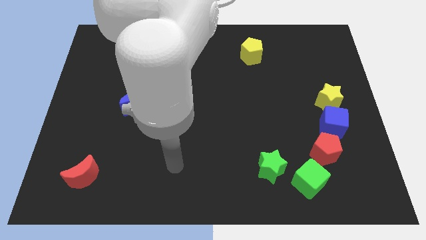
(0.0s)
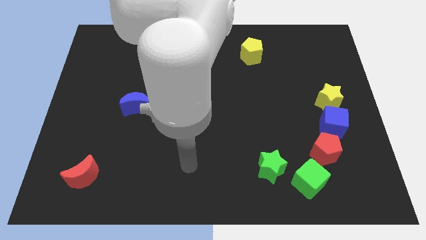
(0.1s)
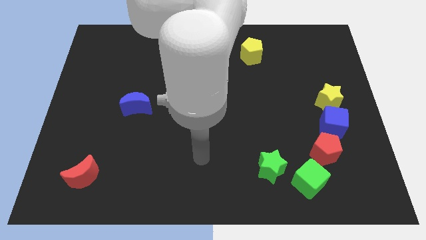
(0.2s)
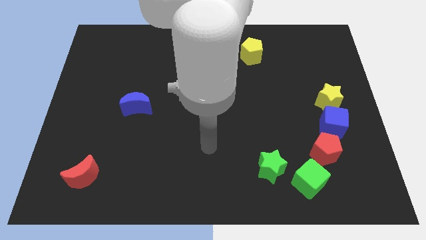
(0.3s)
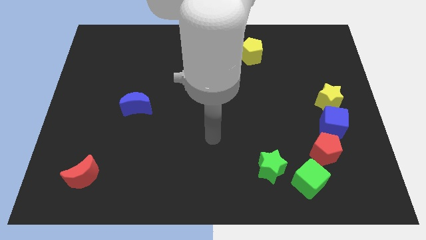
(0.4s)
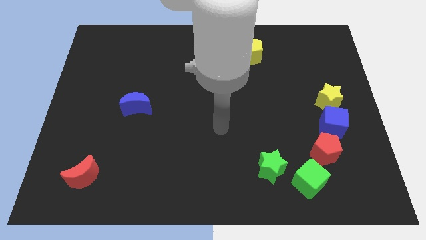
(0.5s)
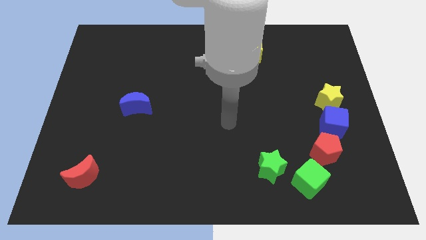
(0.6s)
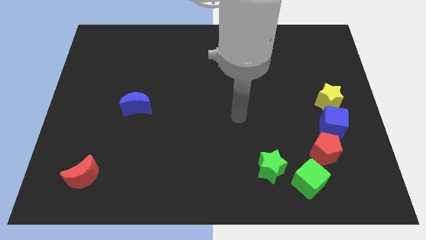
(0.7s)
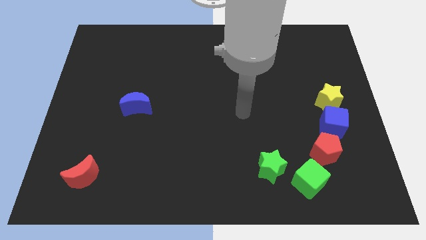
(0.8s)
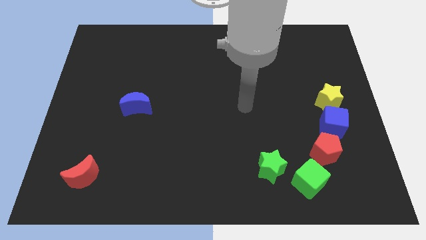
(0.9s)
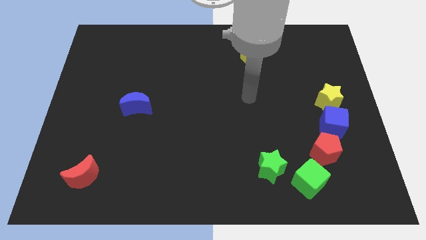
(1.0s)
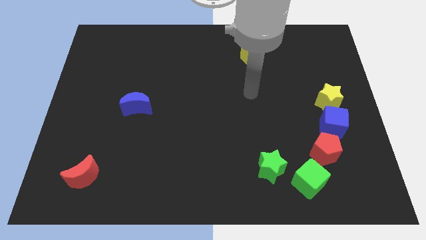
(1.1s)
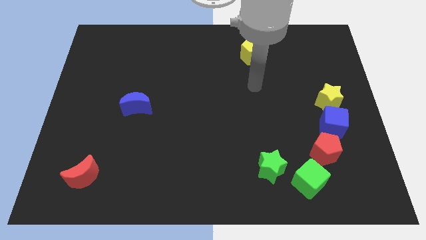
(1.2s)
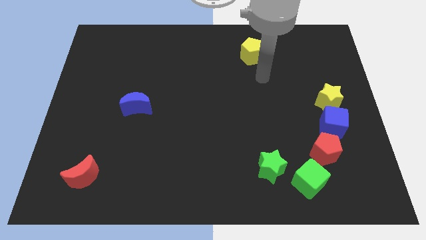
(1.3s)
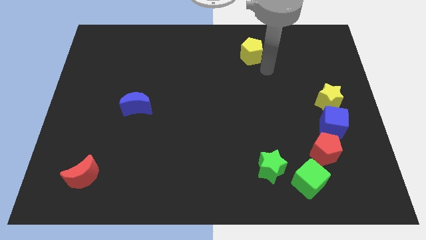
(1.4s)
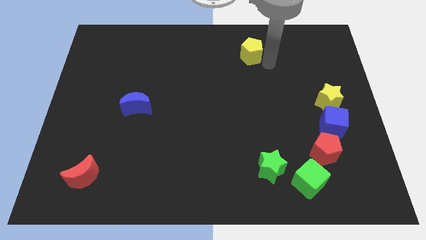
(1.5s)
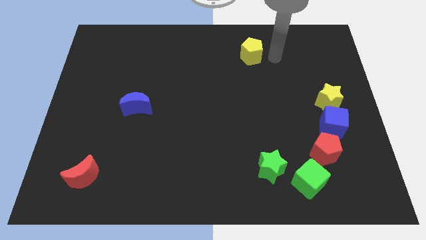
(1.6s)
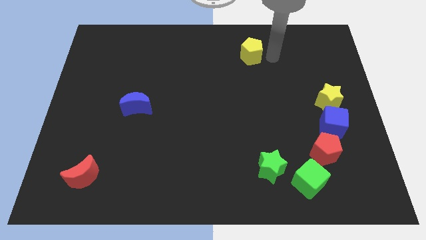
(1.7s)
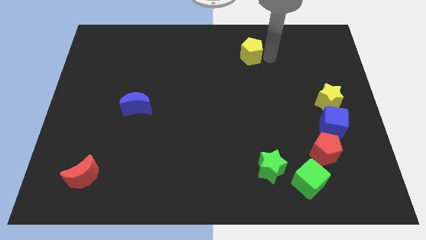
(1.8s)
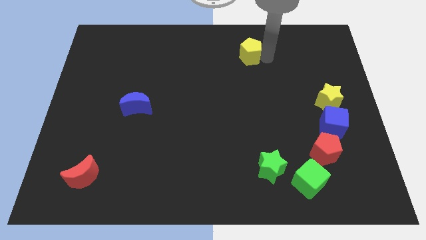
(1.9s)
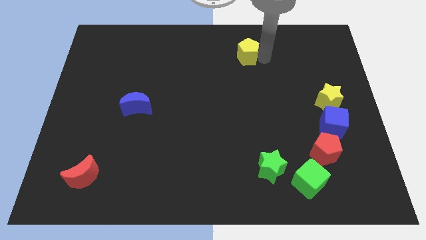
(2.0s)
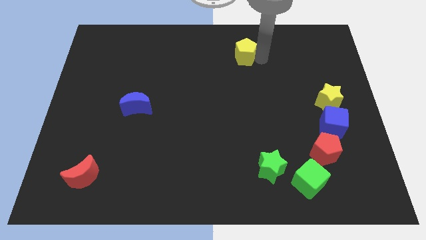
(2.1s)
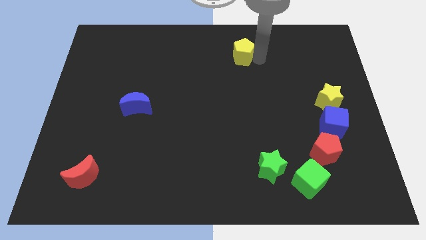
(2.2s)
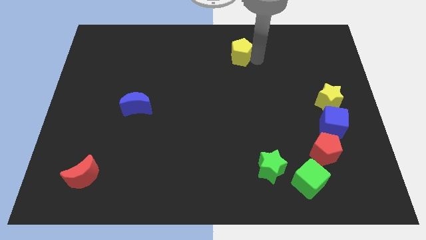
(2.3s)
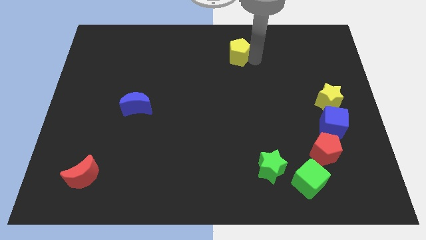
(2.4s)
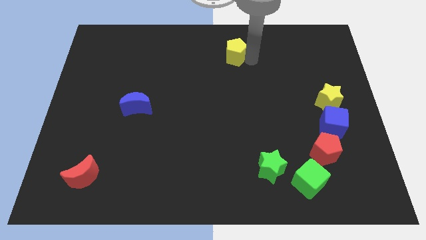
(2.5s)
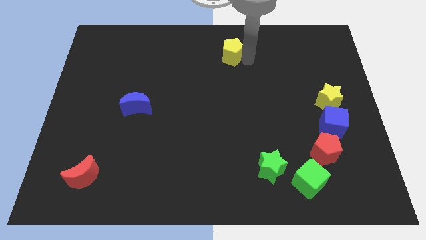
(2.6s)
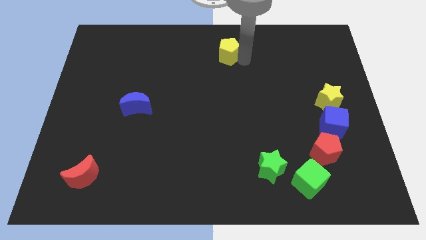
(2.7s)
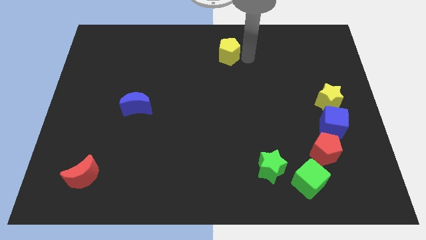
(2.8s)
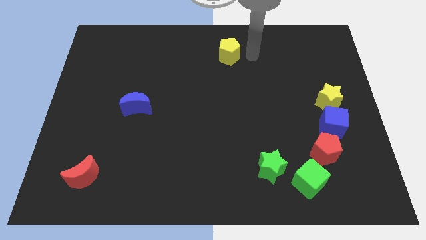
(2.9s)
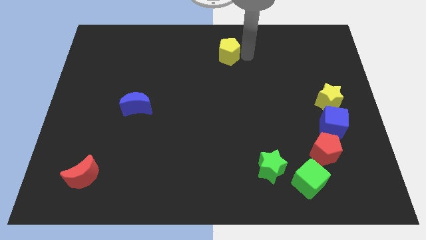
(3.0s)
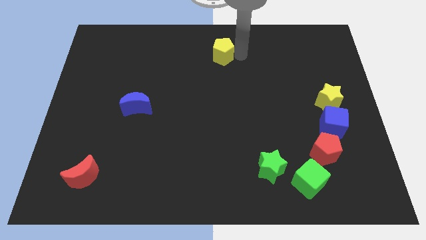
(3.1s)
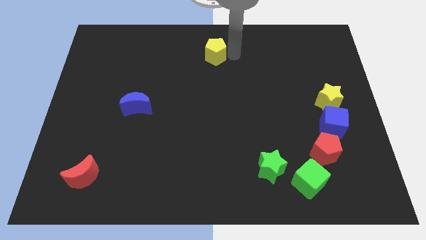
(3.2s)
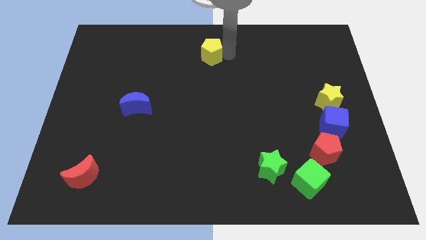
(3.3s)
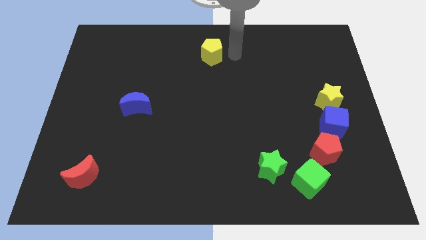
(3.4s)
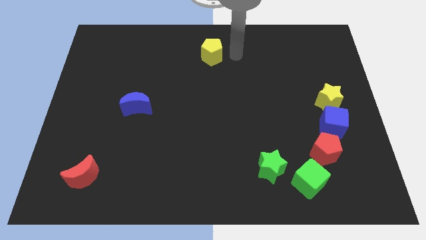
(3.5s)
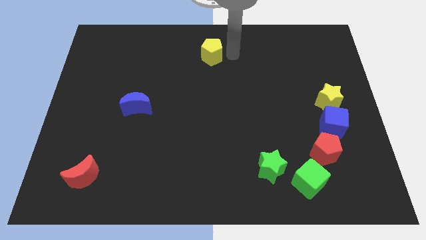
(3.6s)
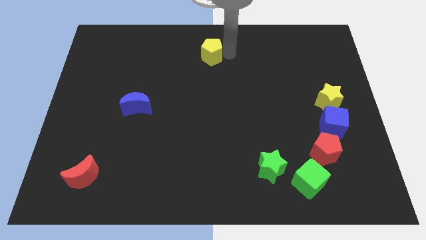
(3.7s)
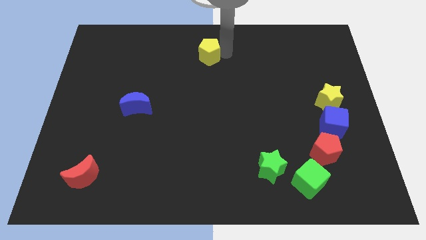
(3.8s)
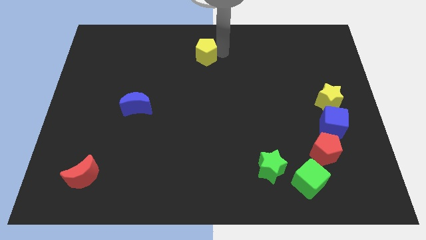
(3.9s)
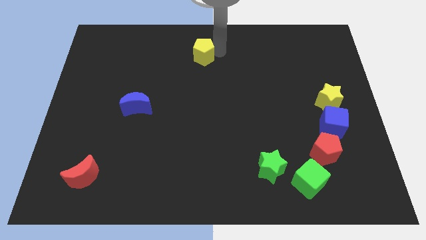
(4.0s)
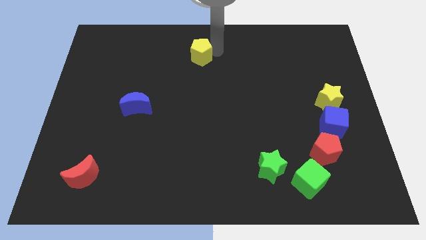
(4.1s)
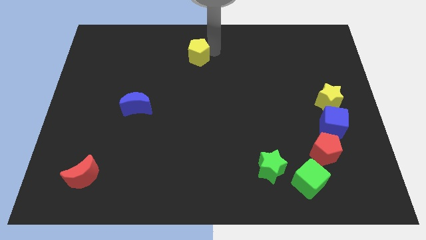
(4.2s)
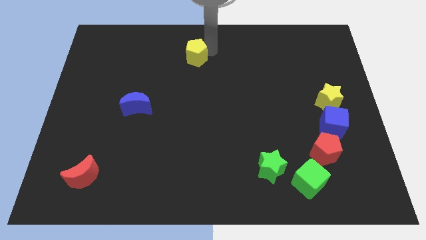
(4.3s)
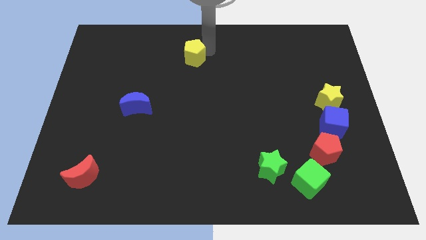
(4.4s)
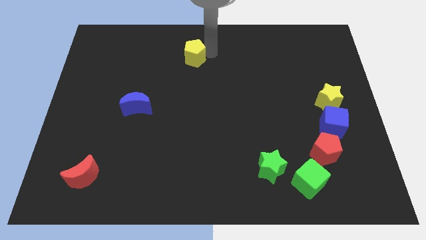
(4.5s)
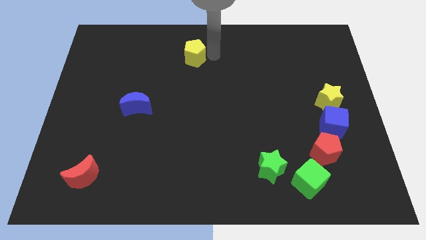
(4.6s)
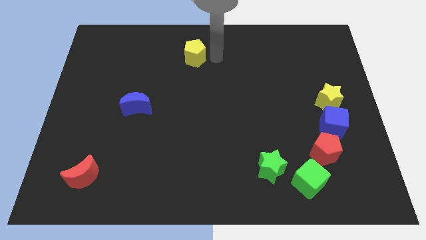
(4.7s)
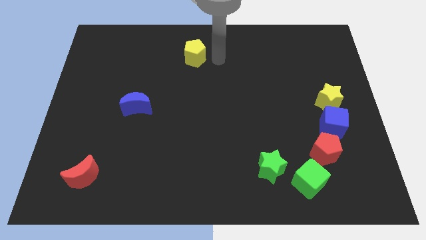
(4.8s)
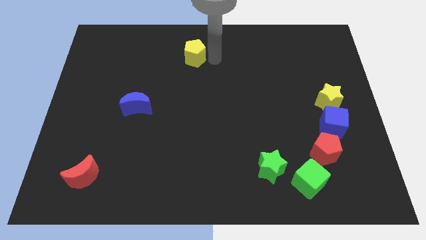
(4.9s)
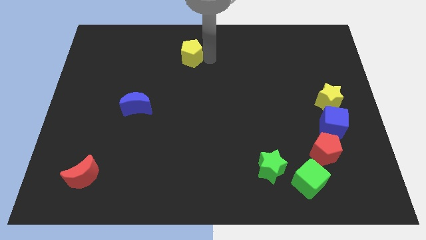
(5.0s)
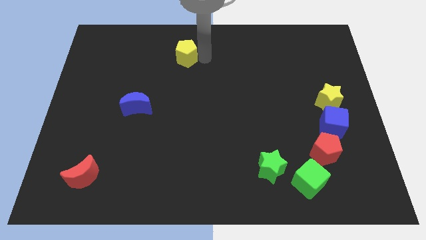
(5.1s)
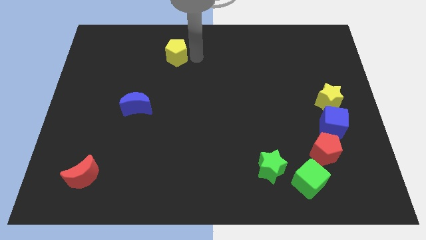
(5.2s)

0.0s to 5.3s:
push the yellow pentagon to the left

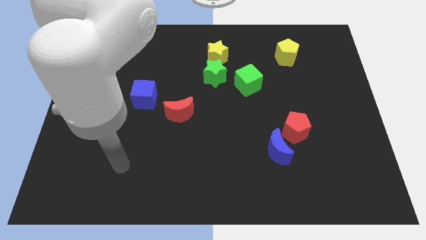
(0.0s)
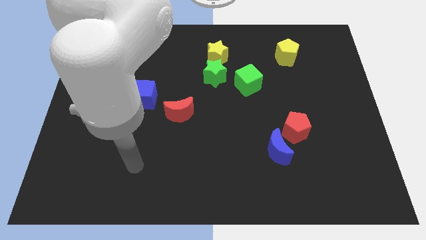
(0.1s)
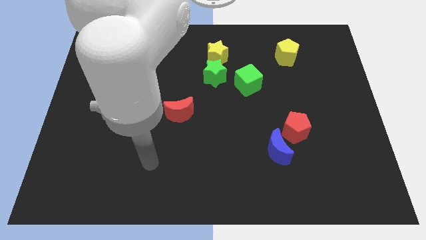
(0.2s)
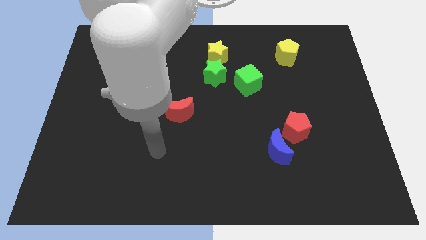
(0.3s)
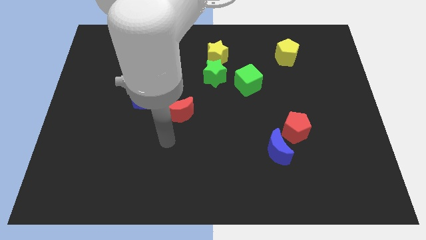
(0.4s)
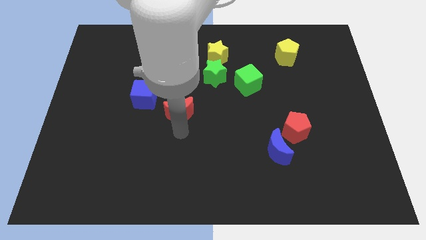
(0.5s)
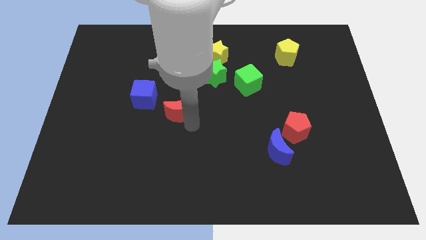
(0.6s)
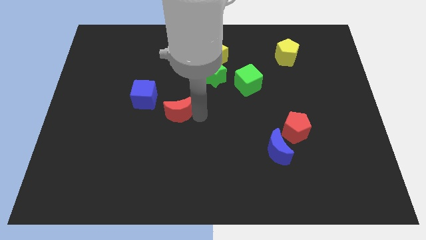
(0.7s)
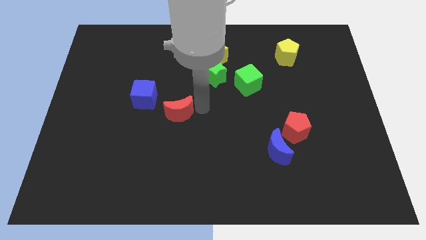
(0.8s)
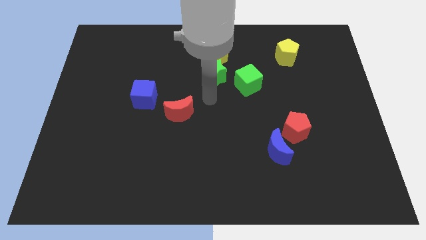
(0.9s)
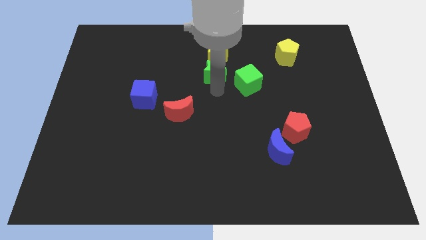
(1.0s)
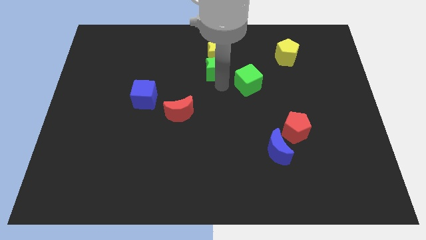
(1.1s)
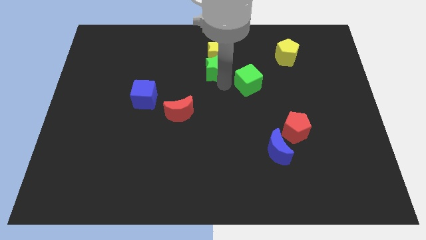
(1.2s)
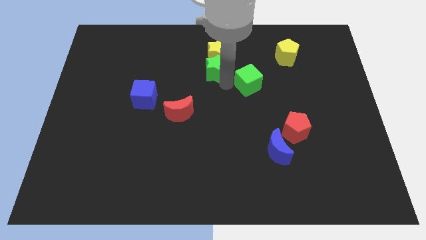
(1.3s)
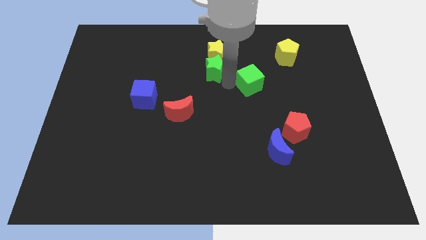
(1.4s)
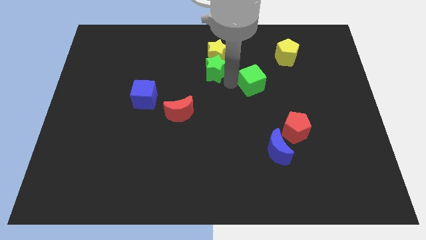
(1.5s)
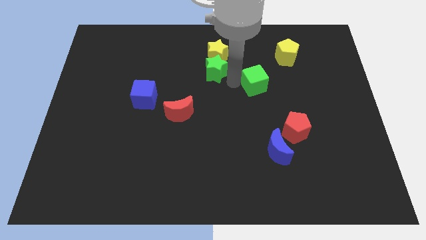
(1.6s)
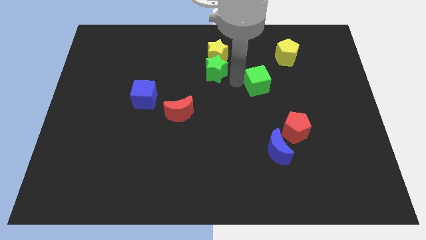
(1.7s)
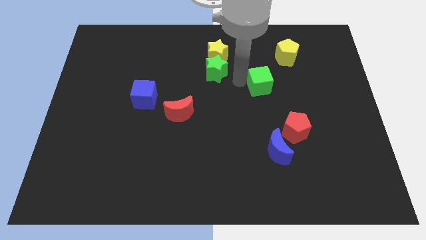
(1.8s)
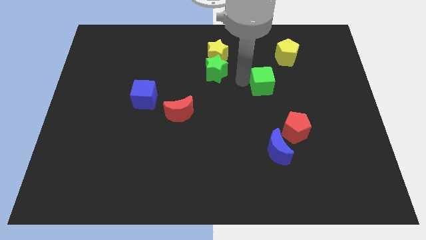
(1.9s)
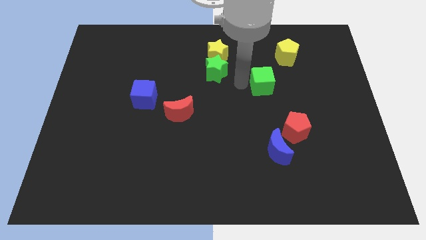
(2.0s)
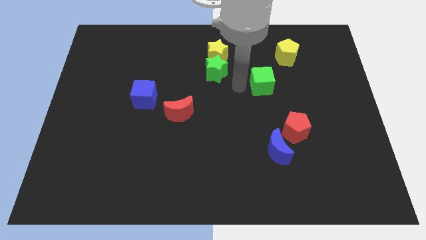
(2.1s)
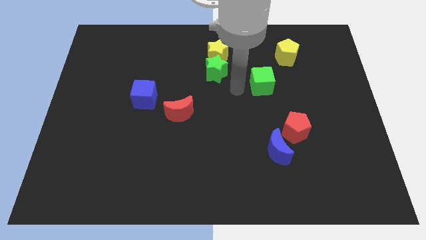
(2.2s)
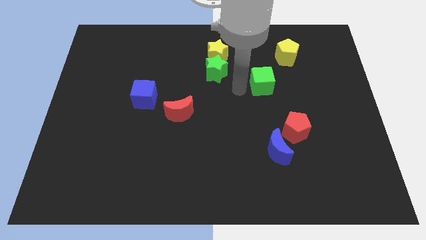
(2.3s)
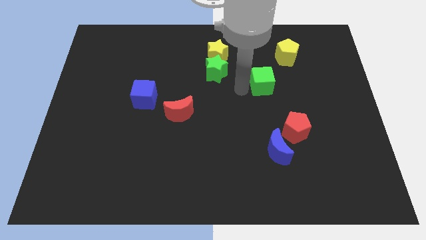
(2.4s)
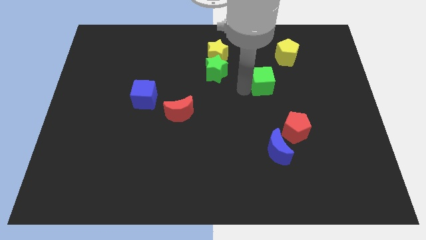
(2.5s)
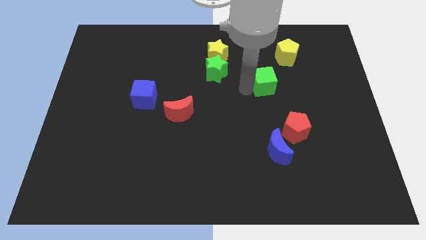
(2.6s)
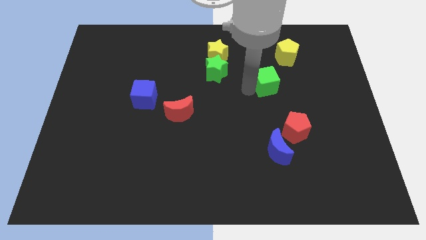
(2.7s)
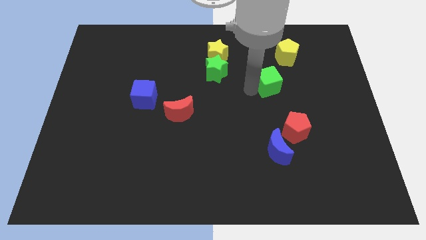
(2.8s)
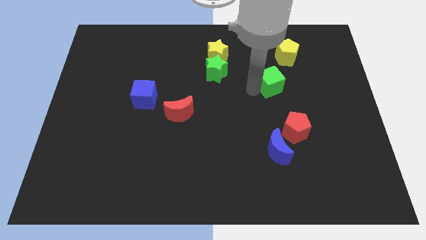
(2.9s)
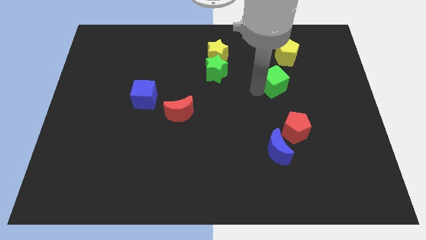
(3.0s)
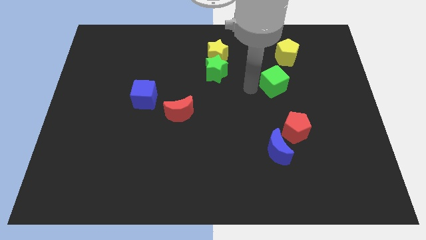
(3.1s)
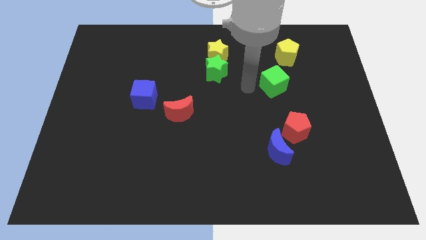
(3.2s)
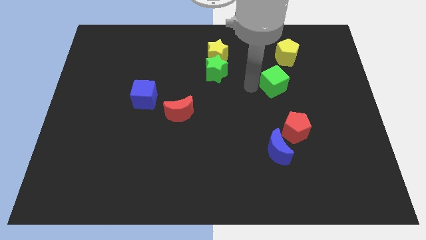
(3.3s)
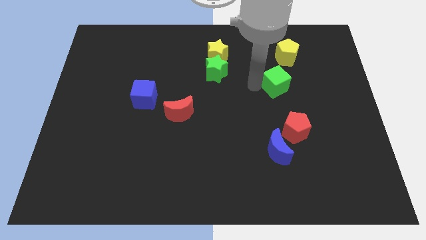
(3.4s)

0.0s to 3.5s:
move the green cube right a bit
